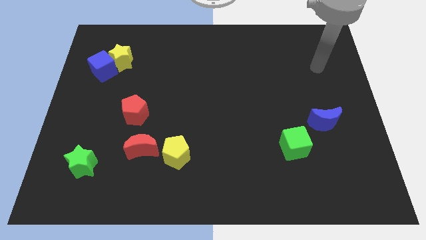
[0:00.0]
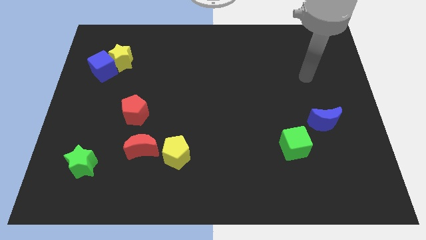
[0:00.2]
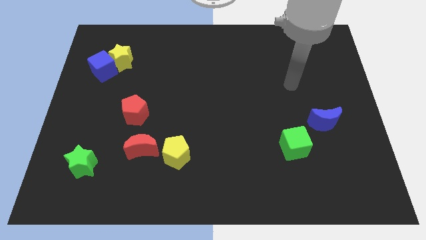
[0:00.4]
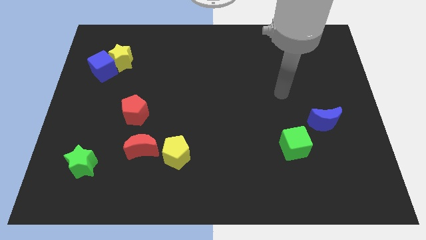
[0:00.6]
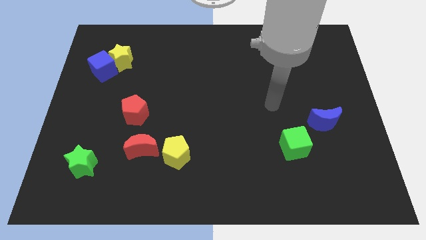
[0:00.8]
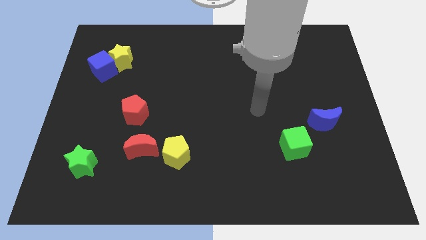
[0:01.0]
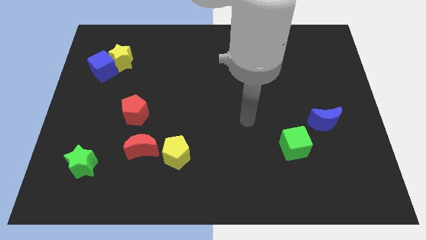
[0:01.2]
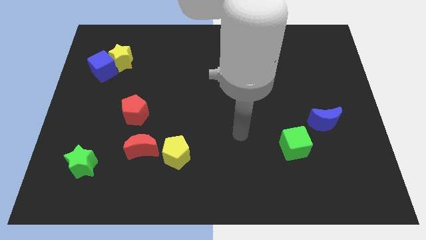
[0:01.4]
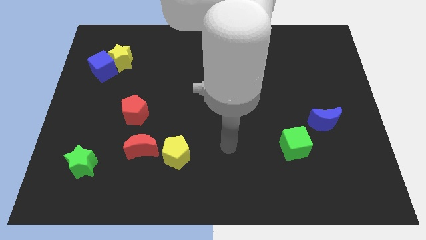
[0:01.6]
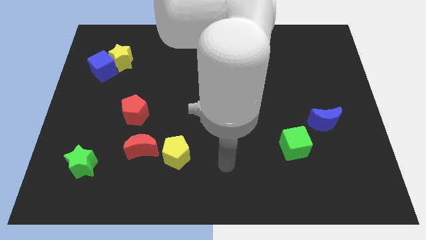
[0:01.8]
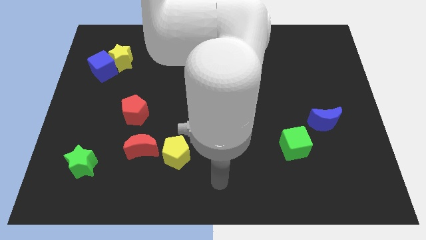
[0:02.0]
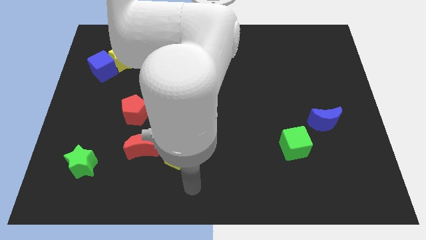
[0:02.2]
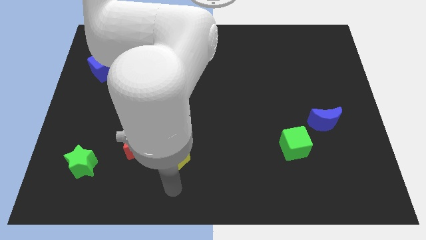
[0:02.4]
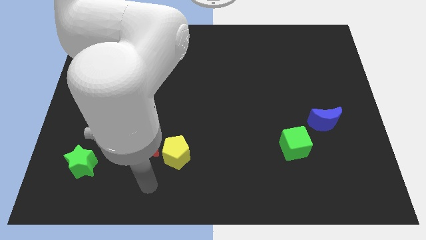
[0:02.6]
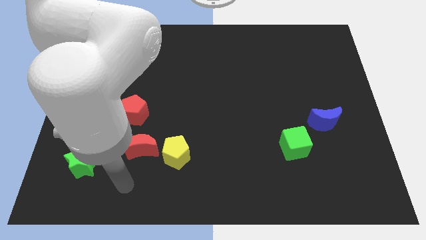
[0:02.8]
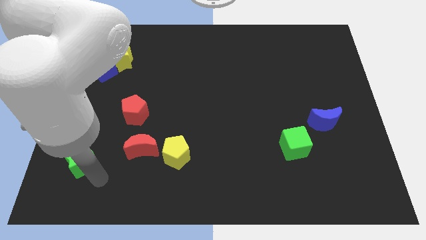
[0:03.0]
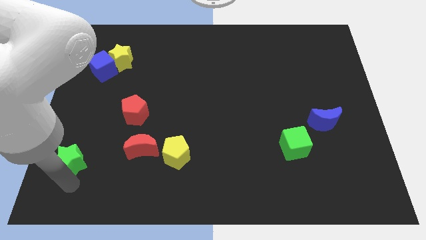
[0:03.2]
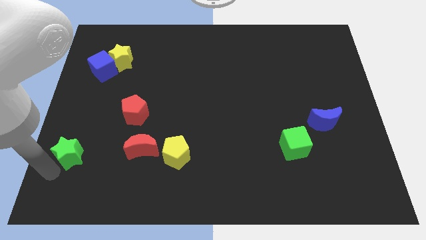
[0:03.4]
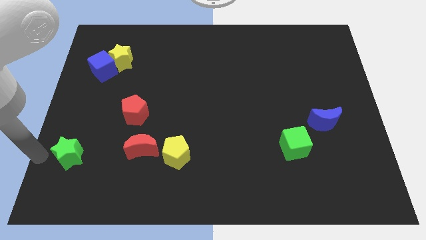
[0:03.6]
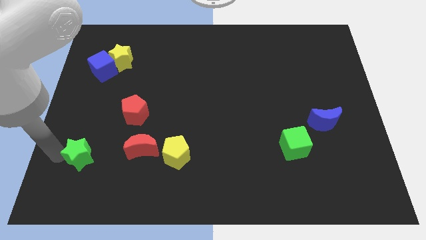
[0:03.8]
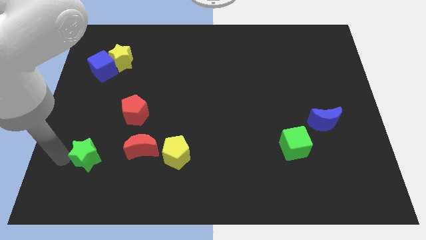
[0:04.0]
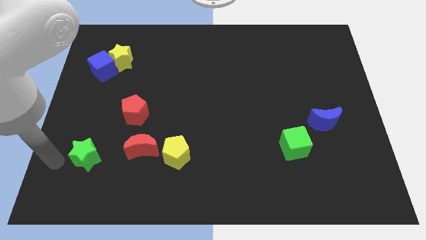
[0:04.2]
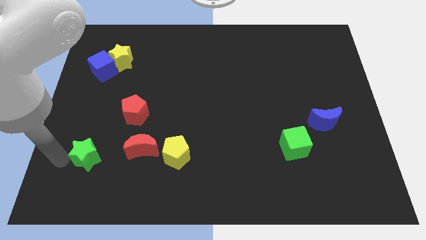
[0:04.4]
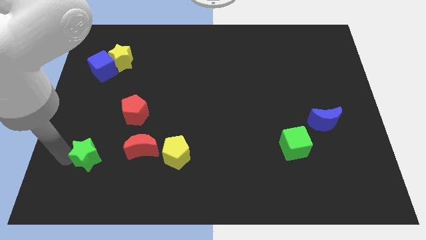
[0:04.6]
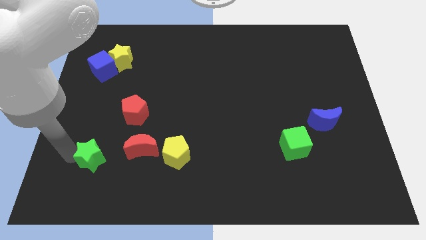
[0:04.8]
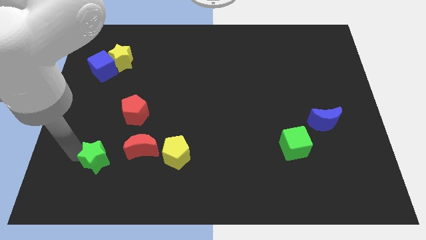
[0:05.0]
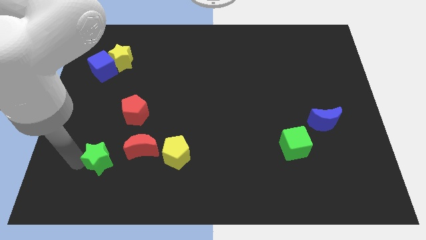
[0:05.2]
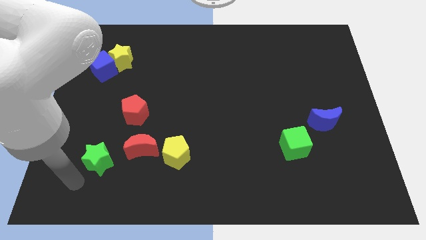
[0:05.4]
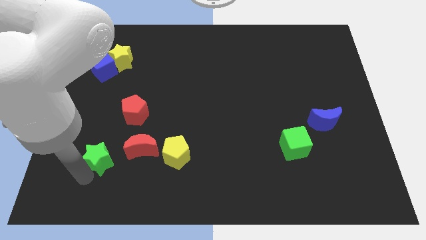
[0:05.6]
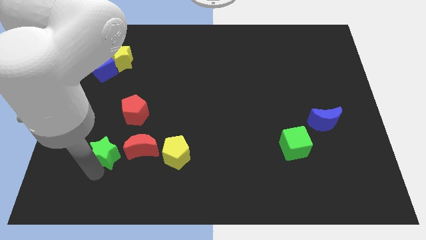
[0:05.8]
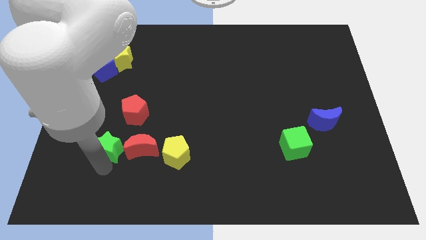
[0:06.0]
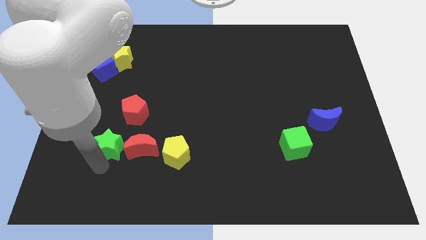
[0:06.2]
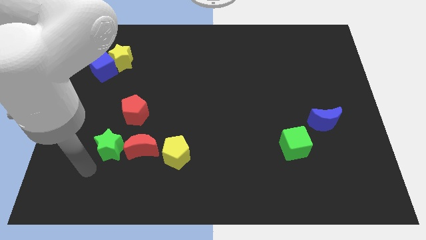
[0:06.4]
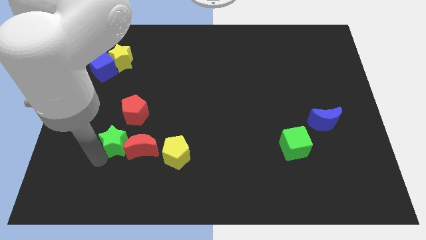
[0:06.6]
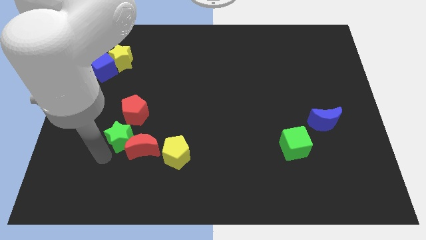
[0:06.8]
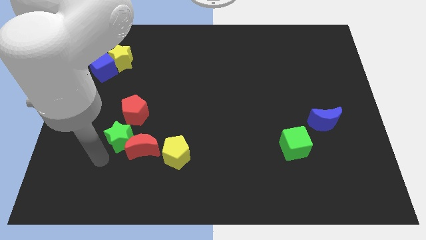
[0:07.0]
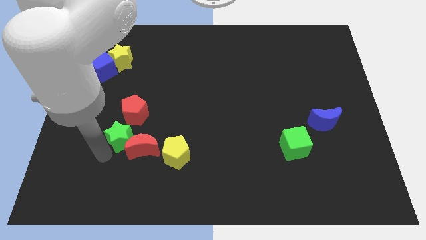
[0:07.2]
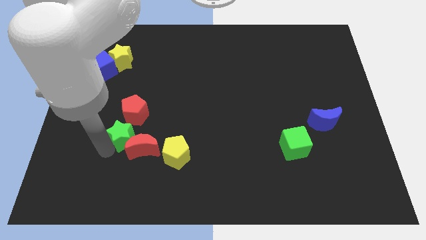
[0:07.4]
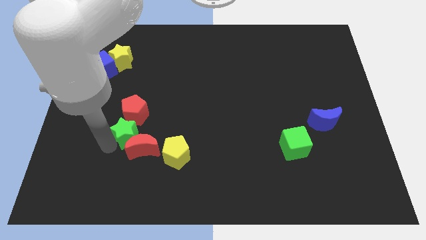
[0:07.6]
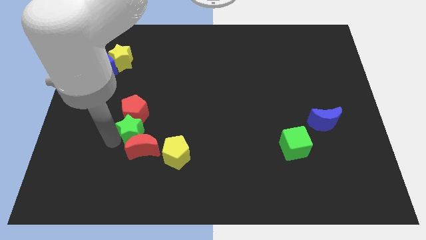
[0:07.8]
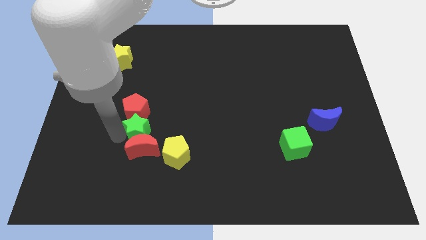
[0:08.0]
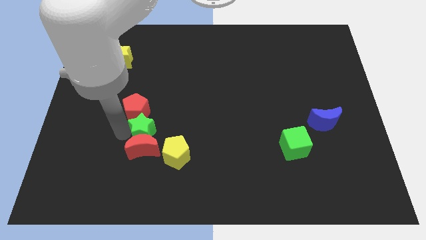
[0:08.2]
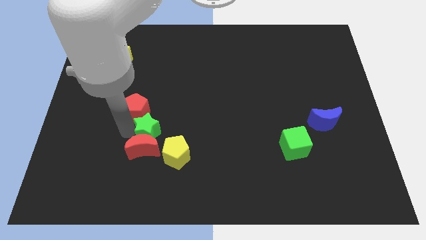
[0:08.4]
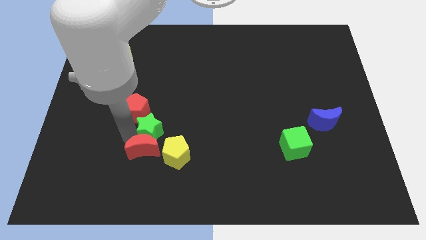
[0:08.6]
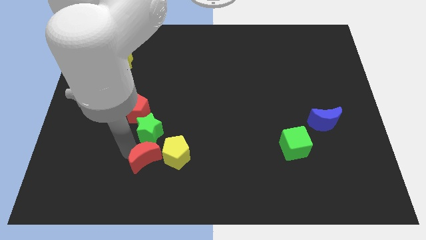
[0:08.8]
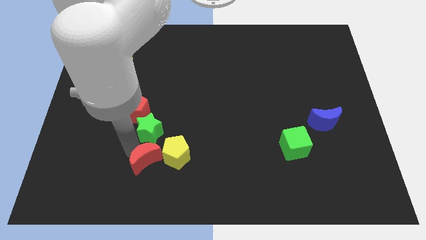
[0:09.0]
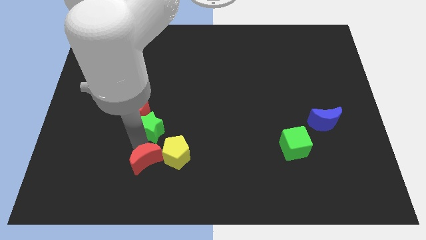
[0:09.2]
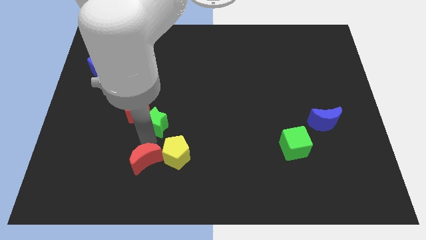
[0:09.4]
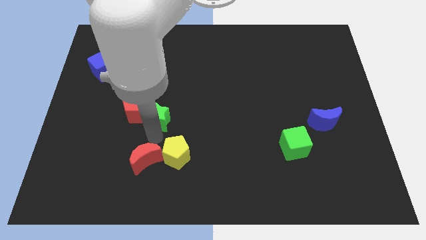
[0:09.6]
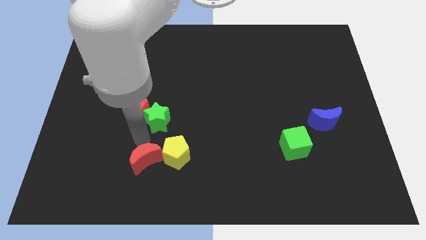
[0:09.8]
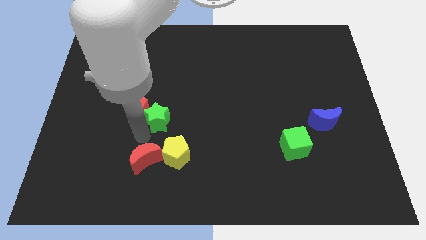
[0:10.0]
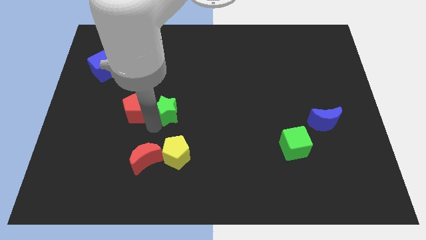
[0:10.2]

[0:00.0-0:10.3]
slide the green star upwards and to the right

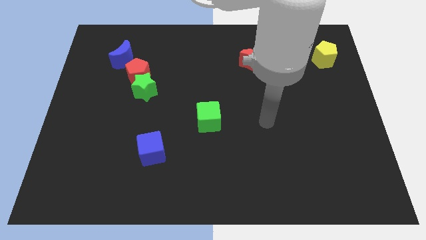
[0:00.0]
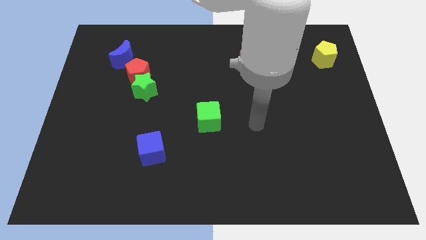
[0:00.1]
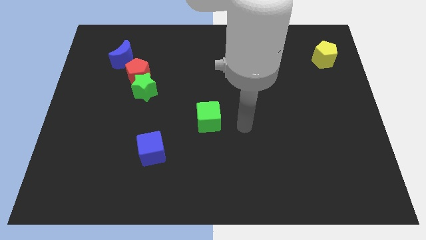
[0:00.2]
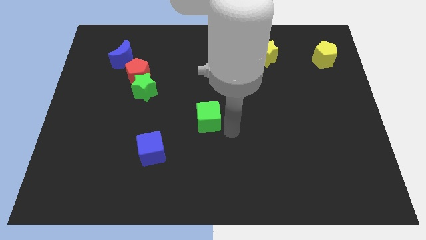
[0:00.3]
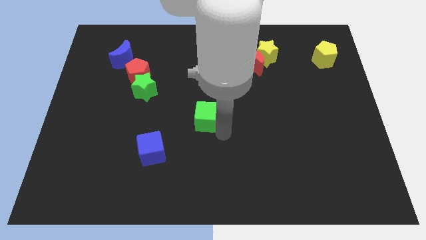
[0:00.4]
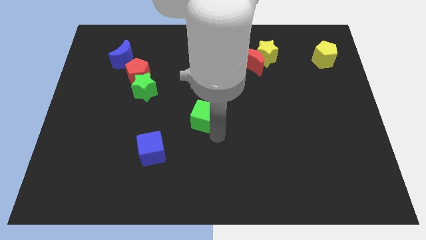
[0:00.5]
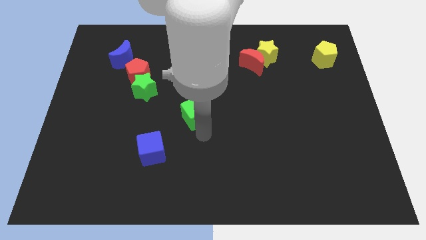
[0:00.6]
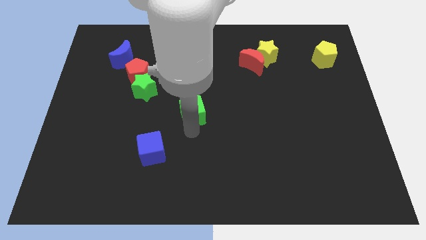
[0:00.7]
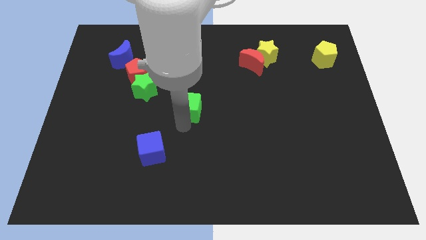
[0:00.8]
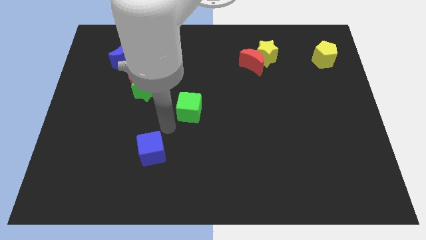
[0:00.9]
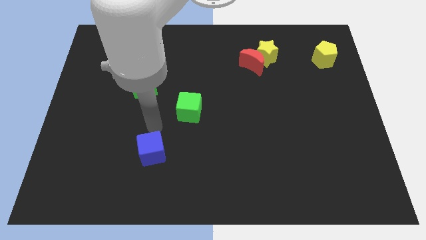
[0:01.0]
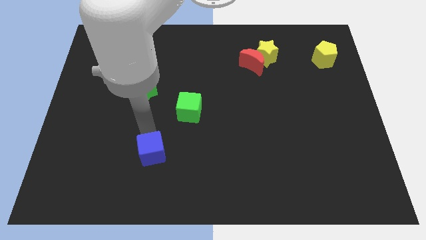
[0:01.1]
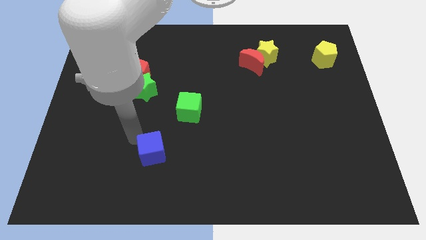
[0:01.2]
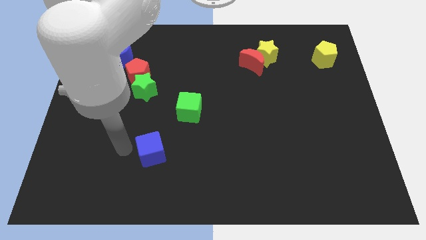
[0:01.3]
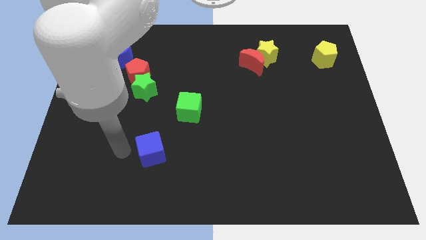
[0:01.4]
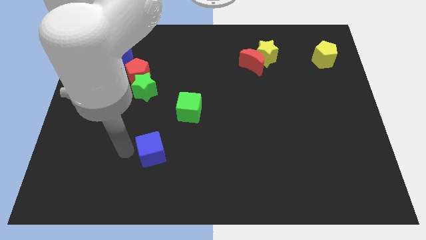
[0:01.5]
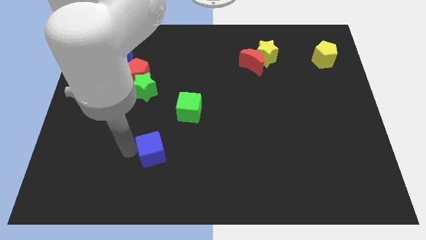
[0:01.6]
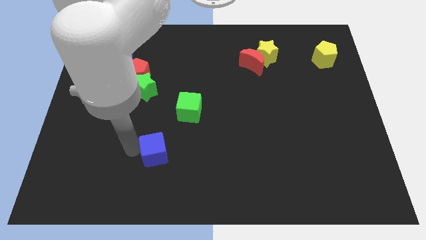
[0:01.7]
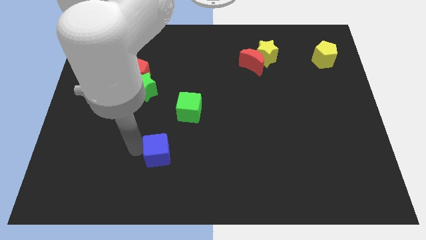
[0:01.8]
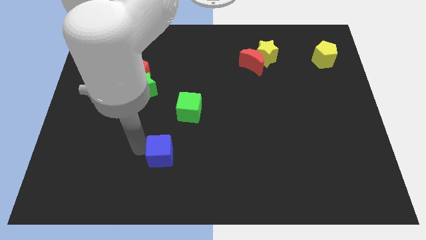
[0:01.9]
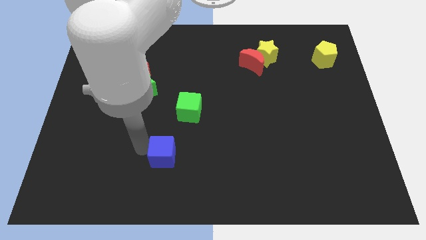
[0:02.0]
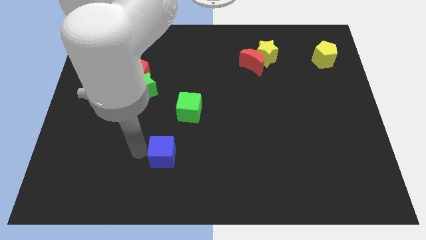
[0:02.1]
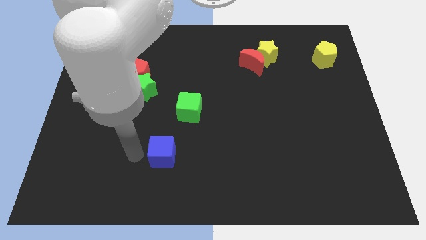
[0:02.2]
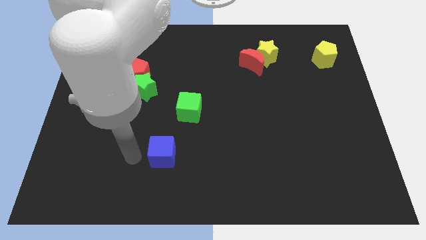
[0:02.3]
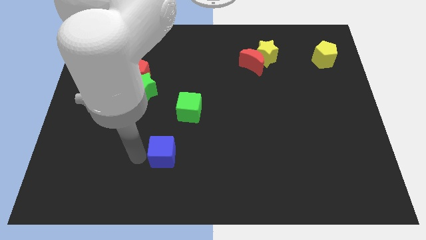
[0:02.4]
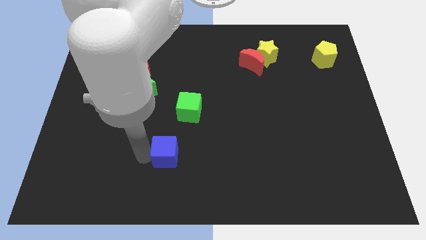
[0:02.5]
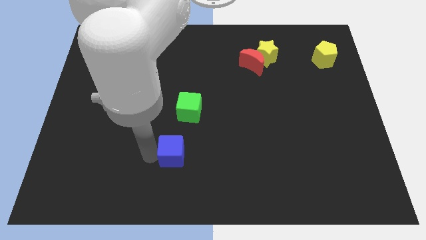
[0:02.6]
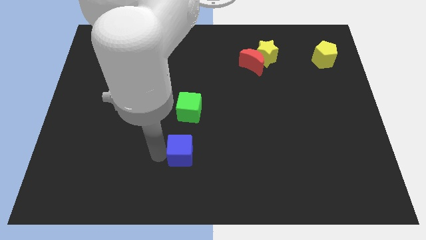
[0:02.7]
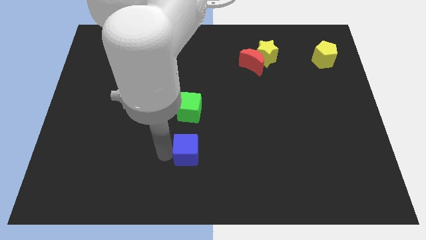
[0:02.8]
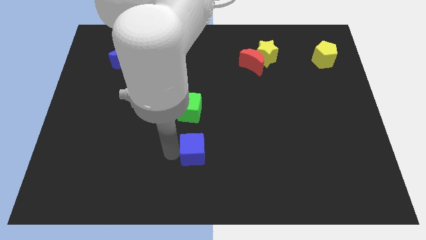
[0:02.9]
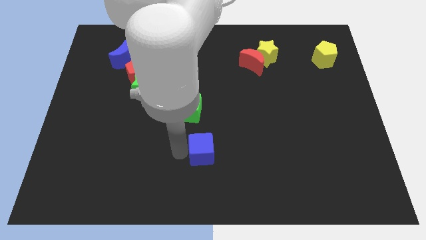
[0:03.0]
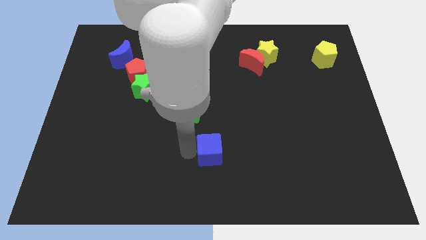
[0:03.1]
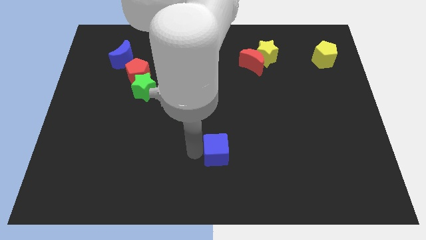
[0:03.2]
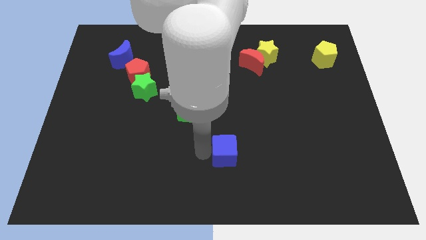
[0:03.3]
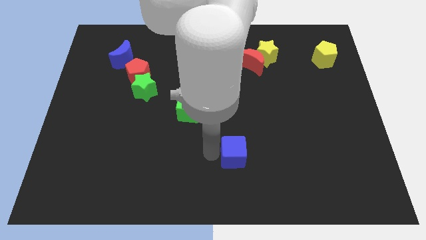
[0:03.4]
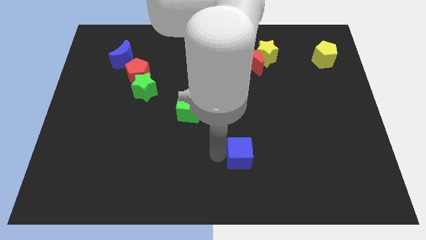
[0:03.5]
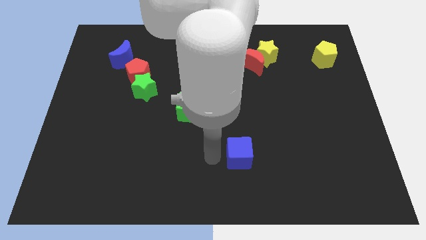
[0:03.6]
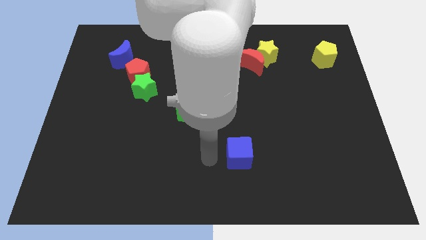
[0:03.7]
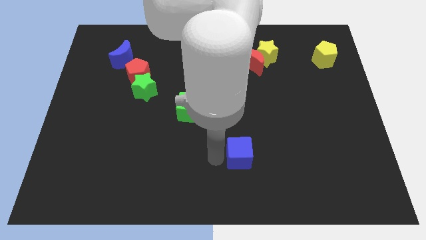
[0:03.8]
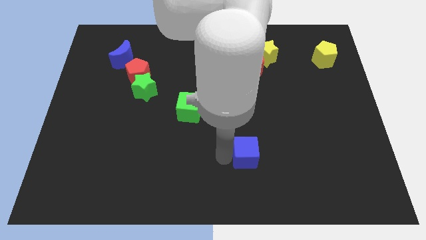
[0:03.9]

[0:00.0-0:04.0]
push the blue cube to the right
